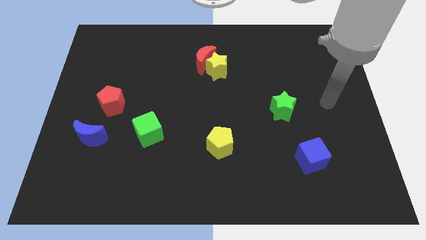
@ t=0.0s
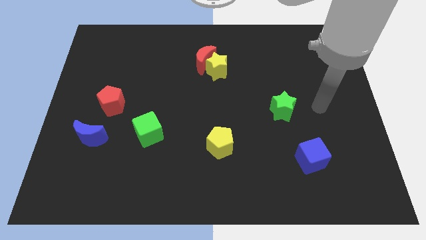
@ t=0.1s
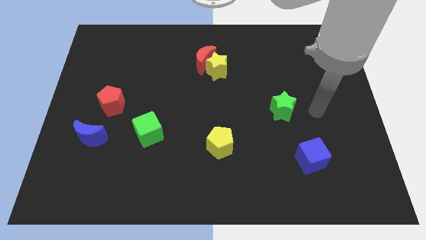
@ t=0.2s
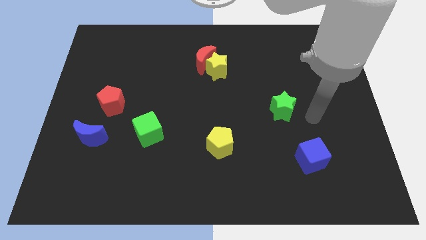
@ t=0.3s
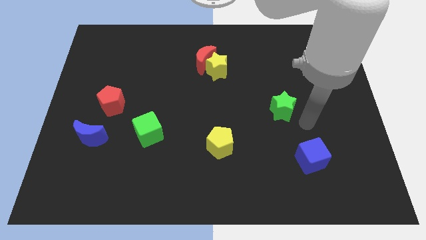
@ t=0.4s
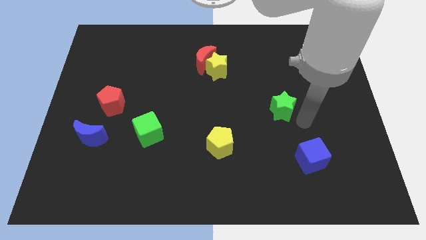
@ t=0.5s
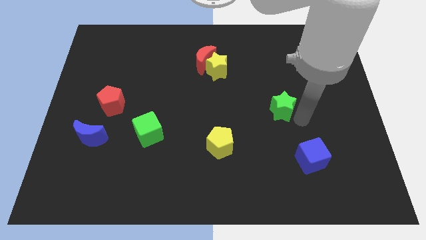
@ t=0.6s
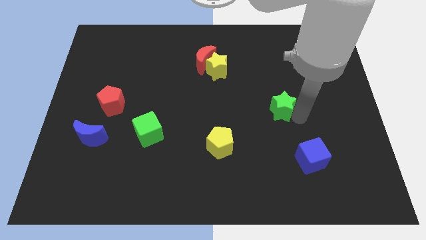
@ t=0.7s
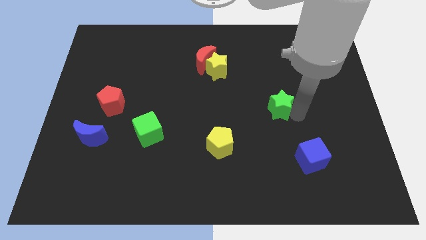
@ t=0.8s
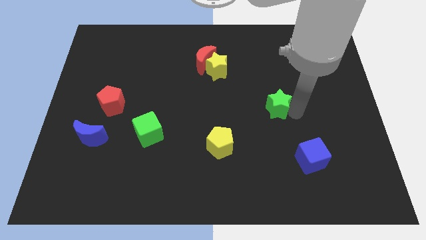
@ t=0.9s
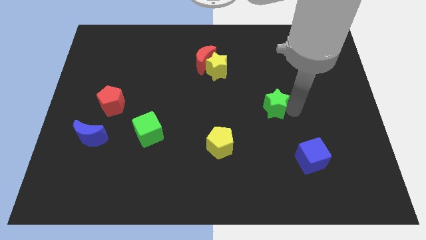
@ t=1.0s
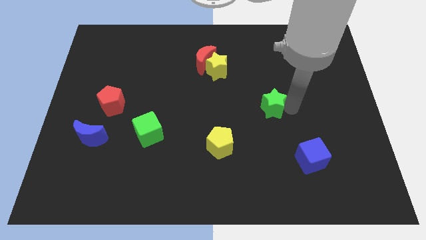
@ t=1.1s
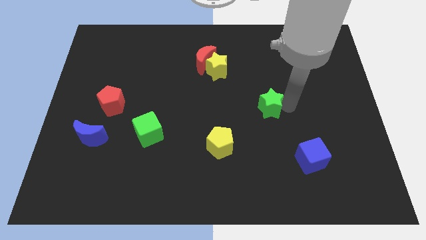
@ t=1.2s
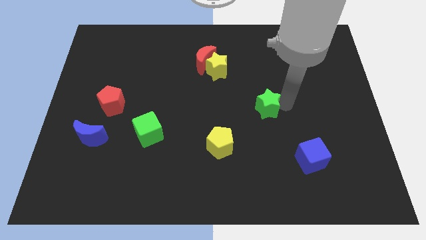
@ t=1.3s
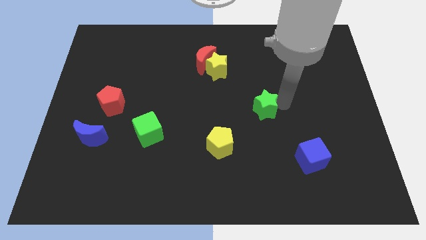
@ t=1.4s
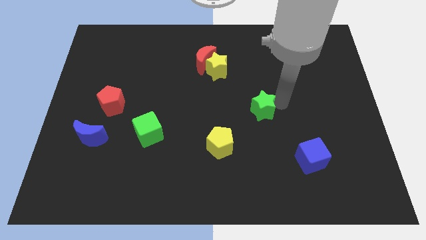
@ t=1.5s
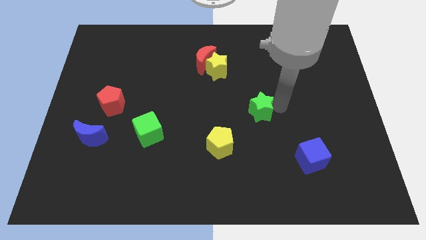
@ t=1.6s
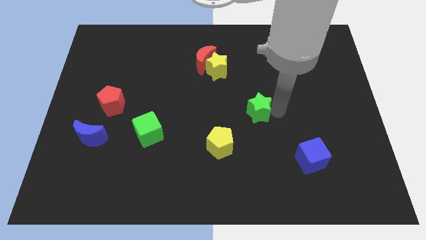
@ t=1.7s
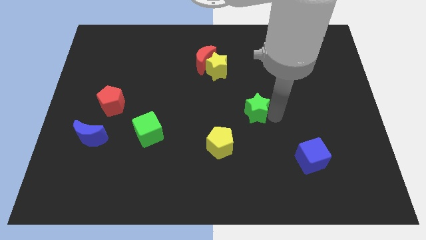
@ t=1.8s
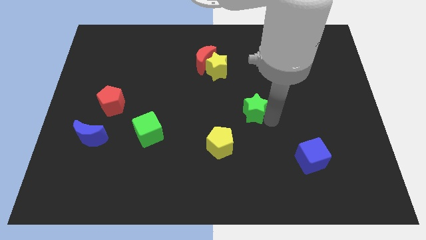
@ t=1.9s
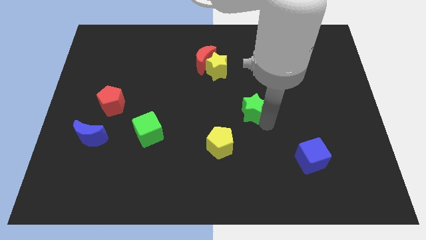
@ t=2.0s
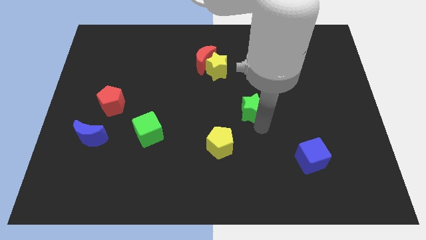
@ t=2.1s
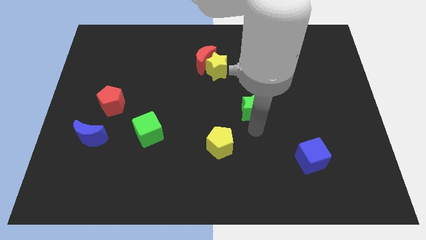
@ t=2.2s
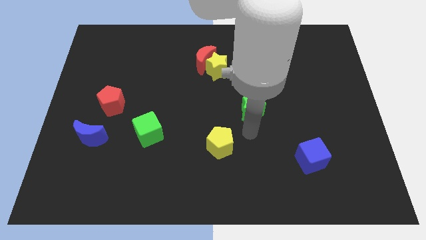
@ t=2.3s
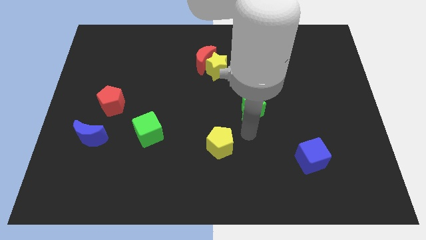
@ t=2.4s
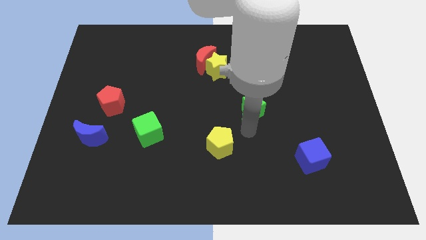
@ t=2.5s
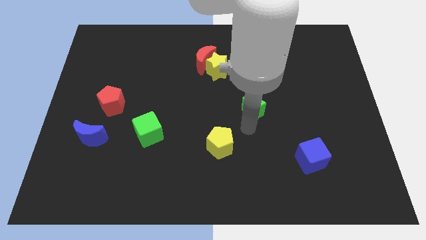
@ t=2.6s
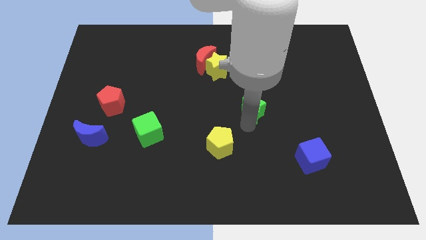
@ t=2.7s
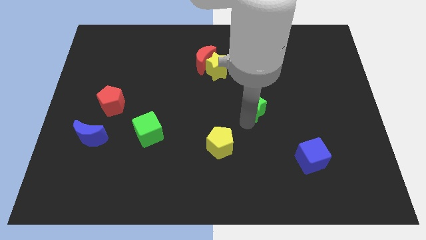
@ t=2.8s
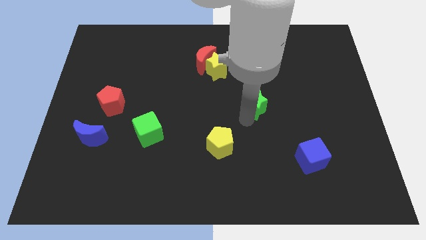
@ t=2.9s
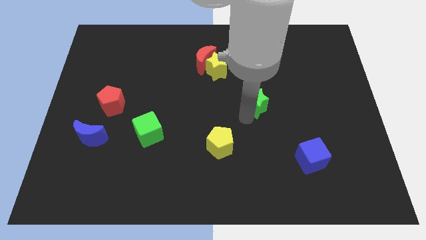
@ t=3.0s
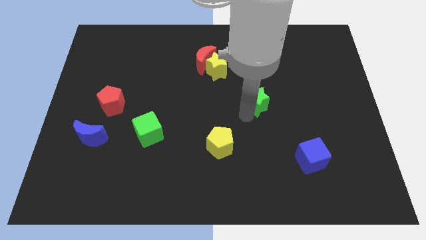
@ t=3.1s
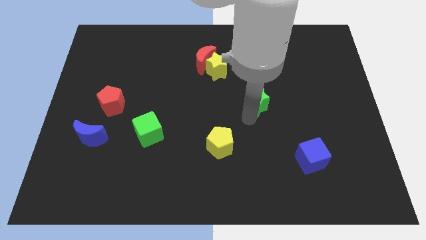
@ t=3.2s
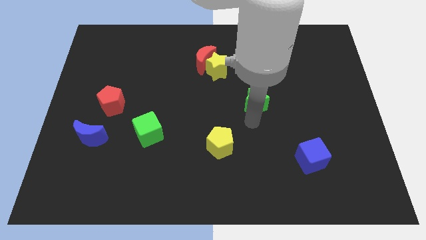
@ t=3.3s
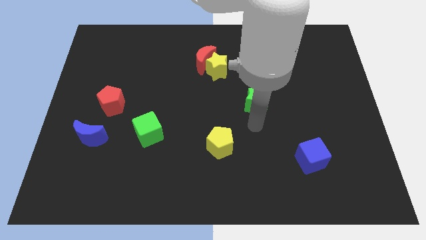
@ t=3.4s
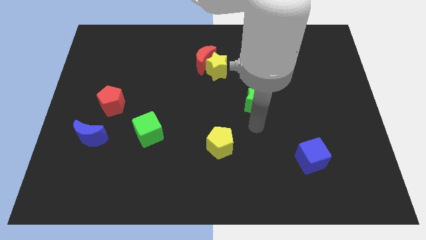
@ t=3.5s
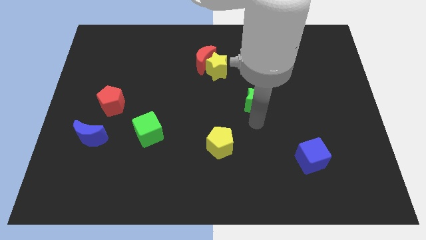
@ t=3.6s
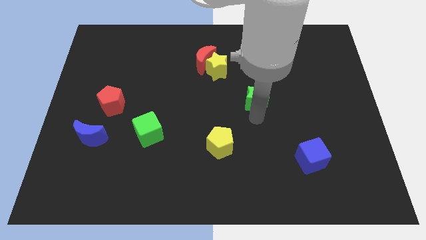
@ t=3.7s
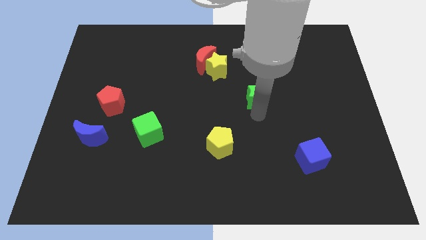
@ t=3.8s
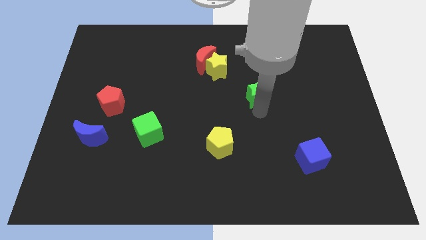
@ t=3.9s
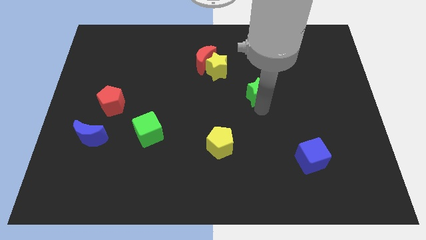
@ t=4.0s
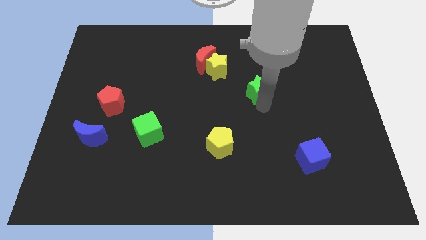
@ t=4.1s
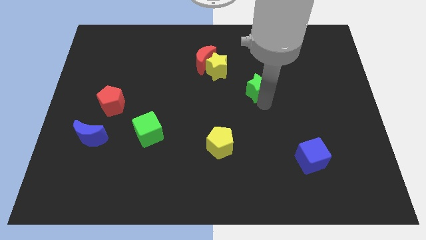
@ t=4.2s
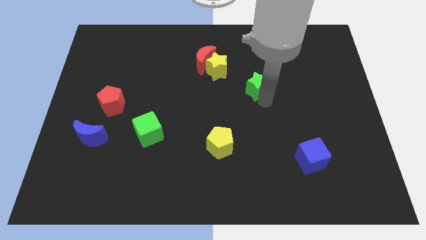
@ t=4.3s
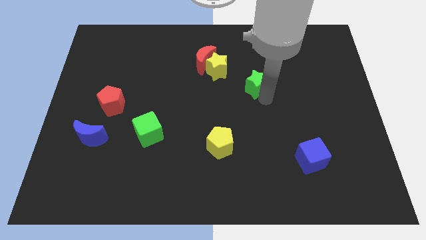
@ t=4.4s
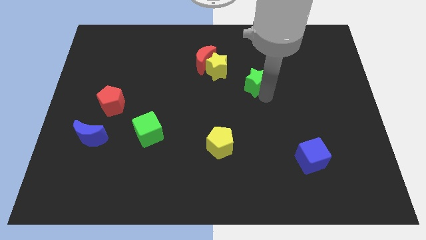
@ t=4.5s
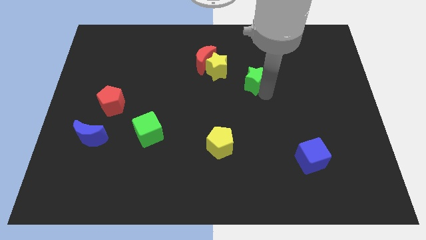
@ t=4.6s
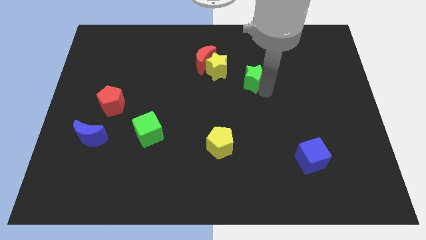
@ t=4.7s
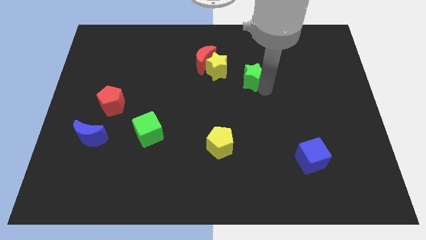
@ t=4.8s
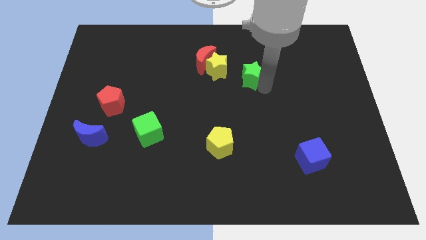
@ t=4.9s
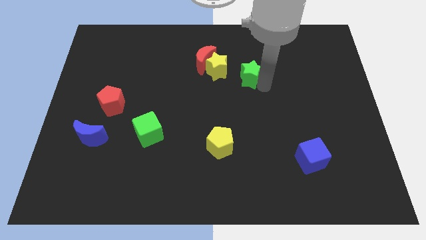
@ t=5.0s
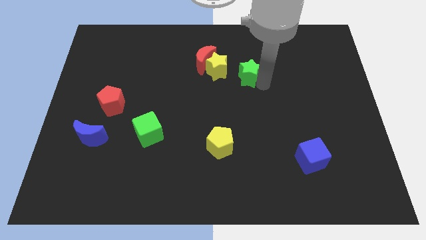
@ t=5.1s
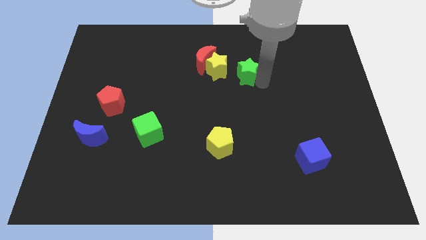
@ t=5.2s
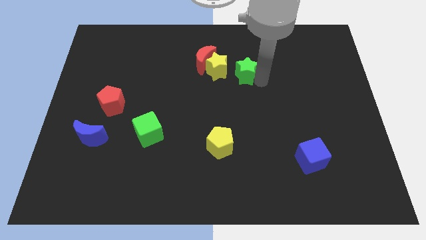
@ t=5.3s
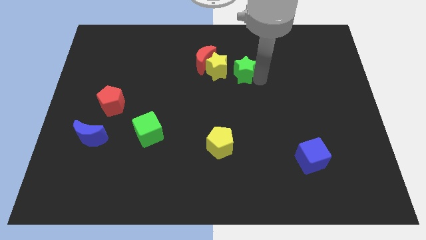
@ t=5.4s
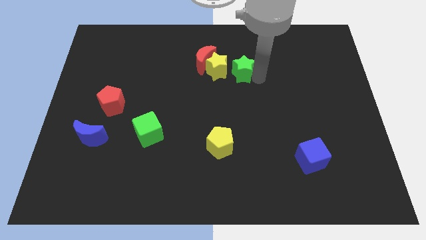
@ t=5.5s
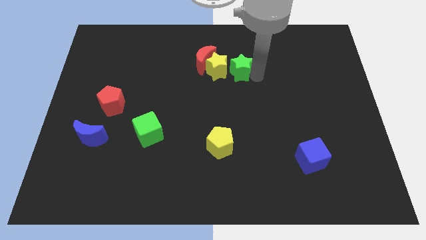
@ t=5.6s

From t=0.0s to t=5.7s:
push the green star close to the yellow star

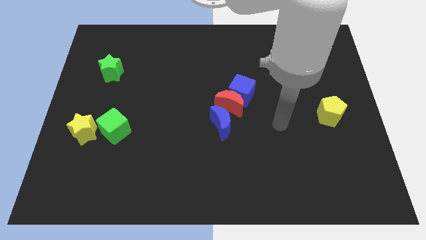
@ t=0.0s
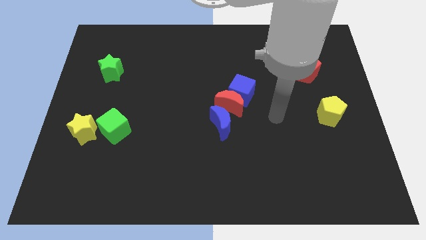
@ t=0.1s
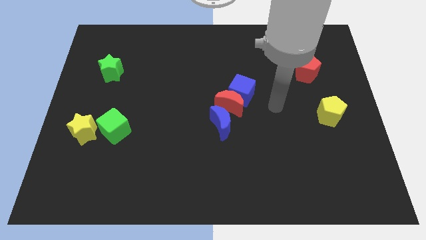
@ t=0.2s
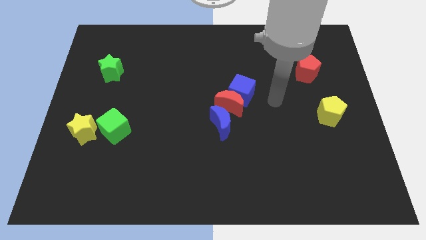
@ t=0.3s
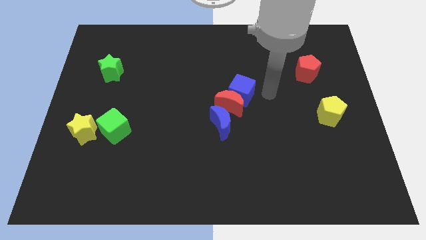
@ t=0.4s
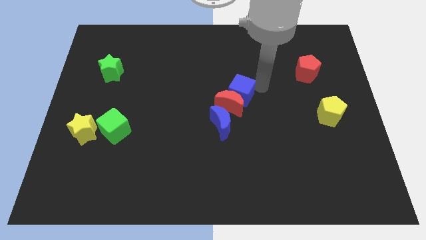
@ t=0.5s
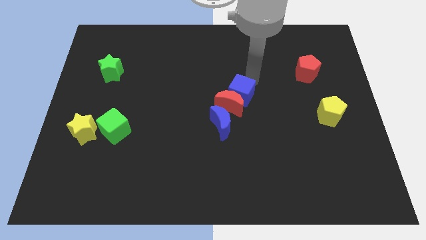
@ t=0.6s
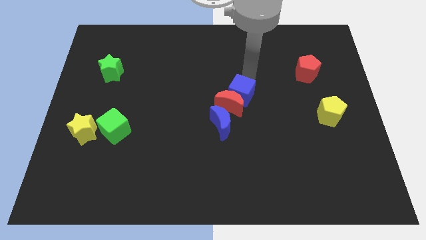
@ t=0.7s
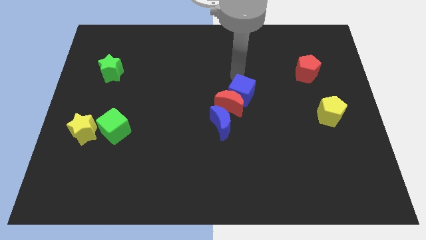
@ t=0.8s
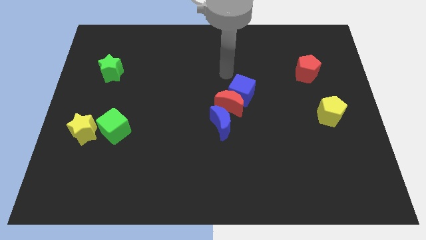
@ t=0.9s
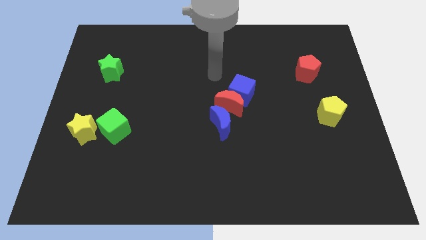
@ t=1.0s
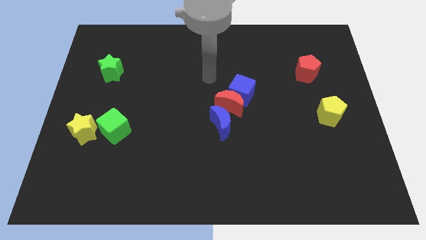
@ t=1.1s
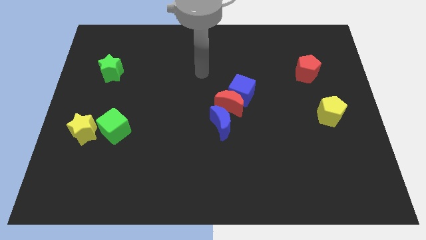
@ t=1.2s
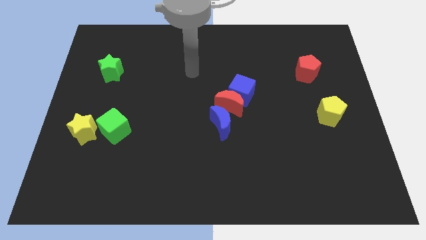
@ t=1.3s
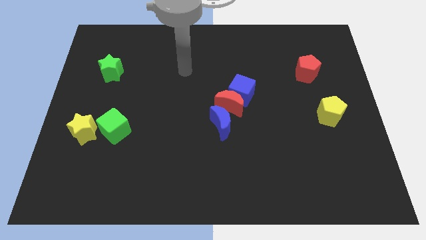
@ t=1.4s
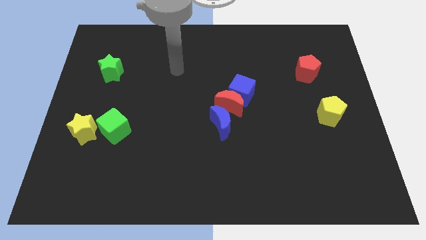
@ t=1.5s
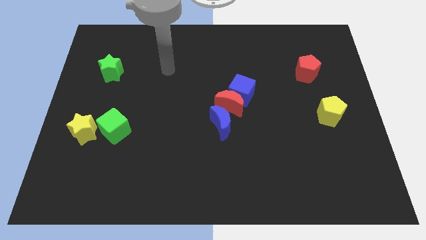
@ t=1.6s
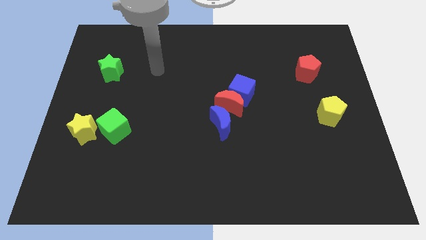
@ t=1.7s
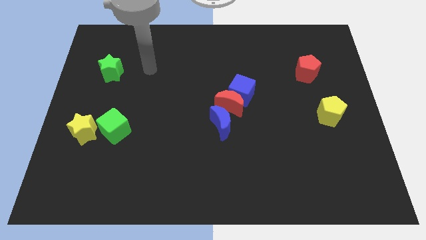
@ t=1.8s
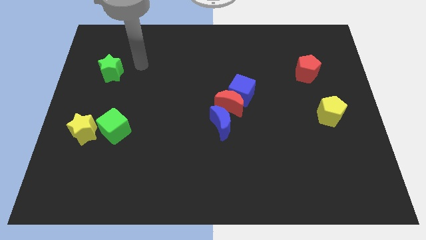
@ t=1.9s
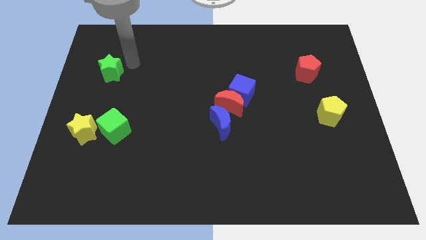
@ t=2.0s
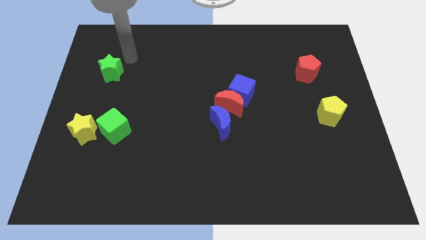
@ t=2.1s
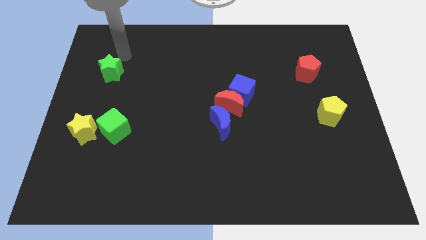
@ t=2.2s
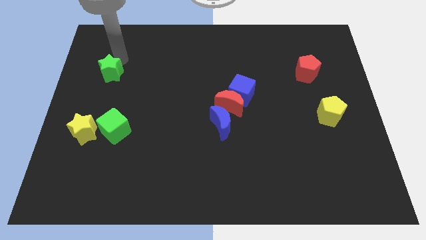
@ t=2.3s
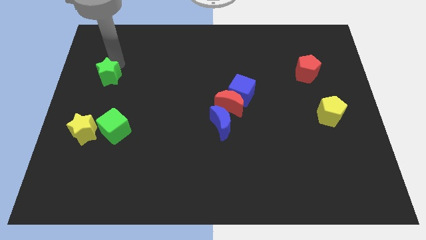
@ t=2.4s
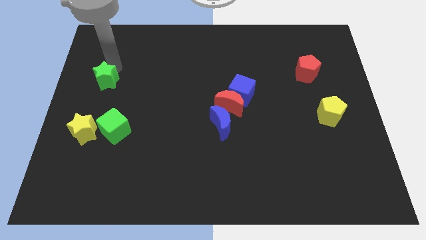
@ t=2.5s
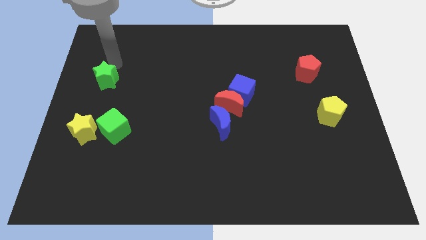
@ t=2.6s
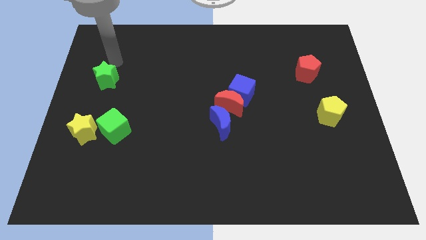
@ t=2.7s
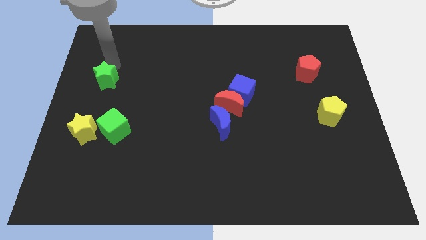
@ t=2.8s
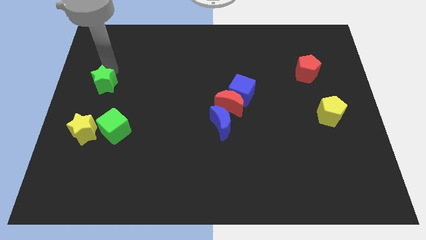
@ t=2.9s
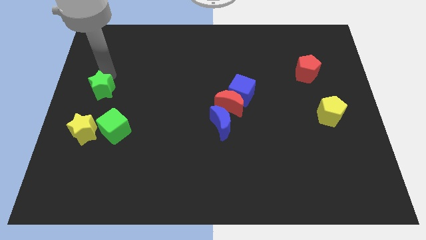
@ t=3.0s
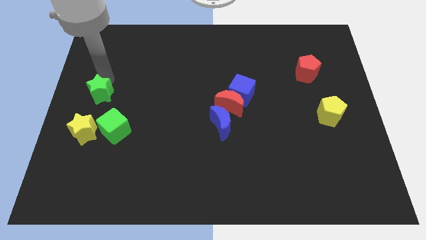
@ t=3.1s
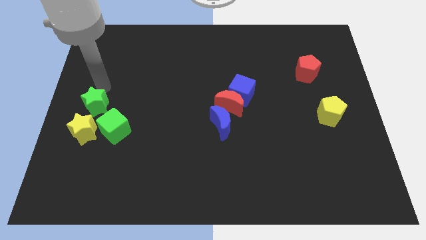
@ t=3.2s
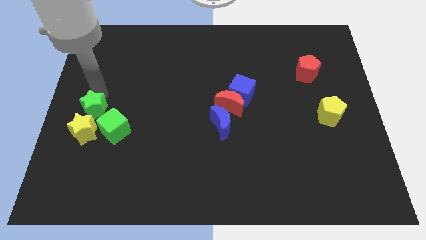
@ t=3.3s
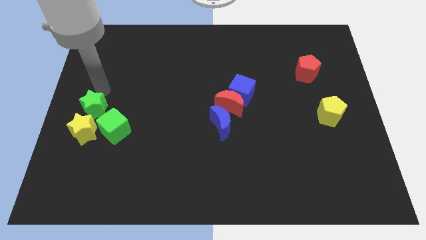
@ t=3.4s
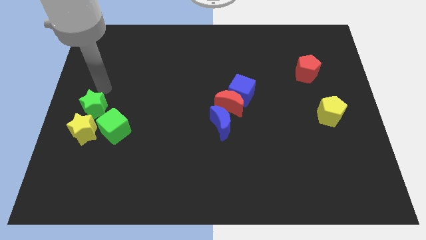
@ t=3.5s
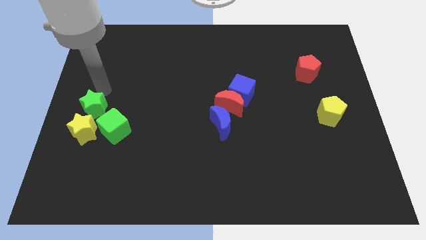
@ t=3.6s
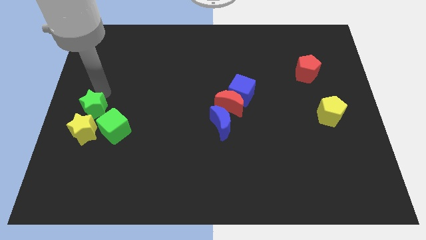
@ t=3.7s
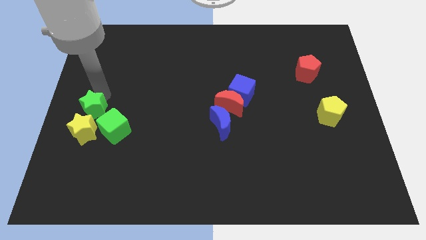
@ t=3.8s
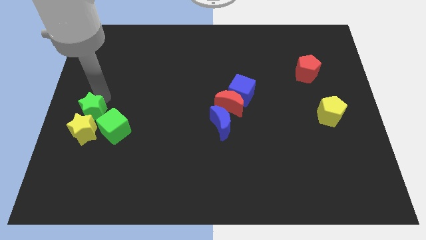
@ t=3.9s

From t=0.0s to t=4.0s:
move the green star to the yellow star
